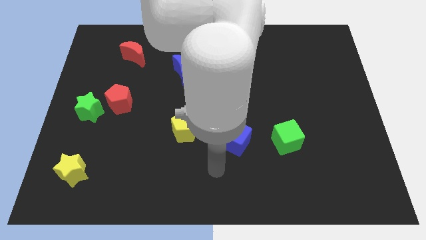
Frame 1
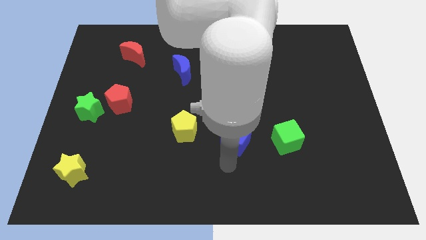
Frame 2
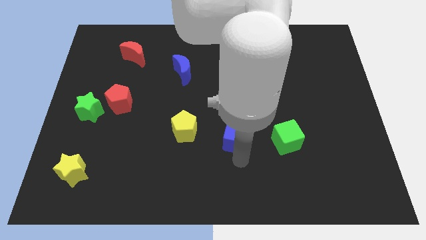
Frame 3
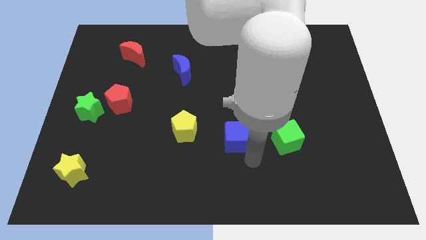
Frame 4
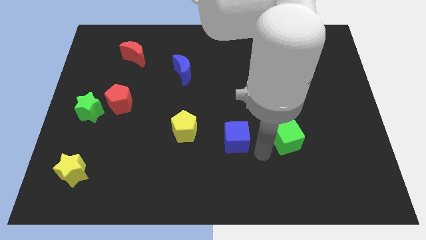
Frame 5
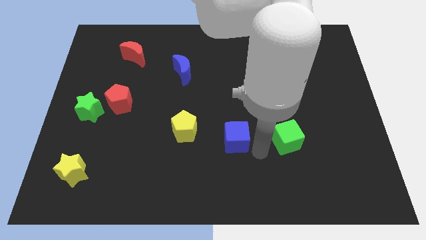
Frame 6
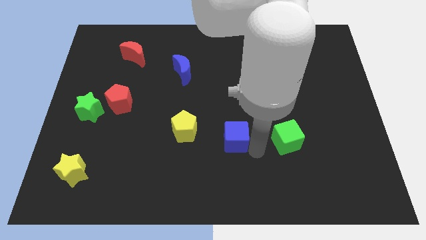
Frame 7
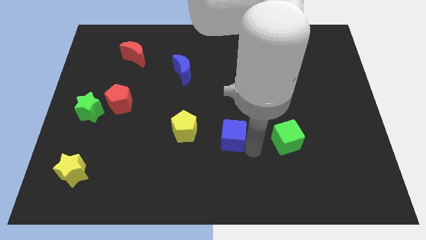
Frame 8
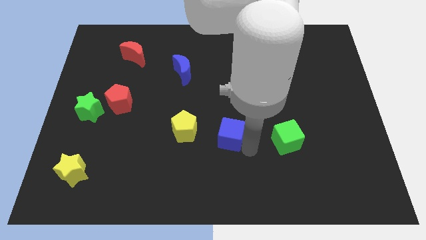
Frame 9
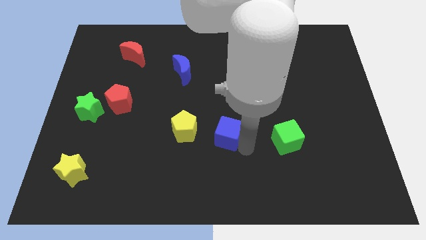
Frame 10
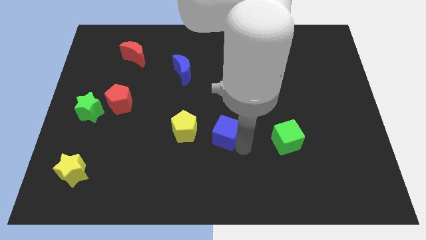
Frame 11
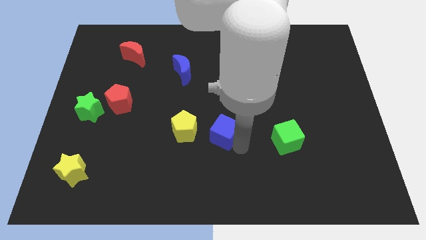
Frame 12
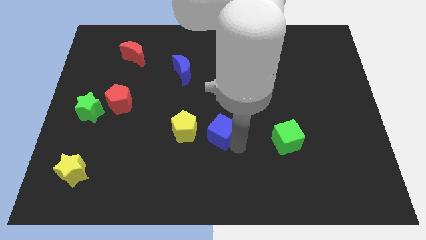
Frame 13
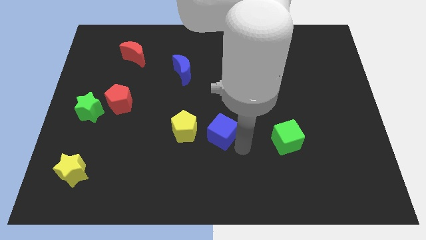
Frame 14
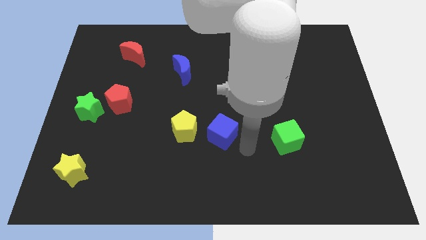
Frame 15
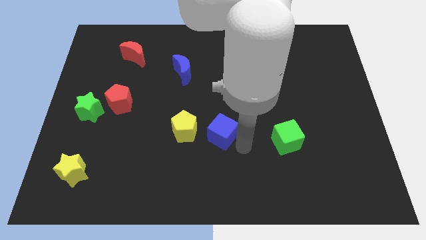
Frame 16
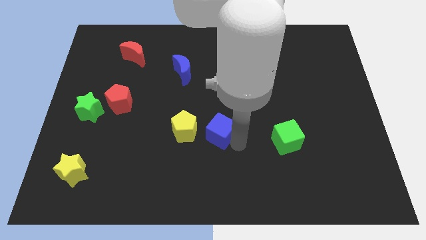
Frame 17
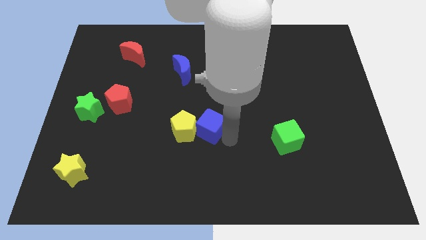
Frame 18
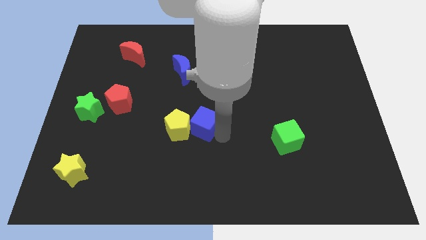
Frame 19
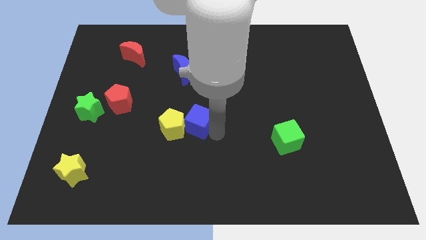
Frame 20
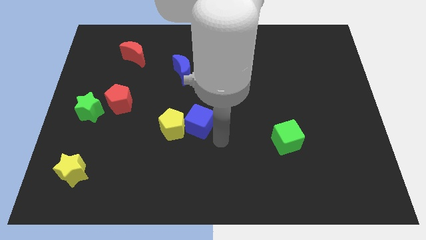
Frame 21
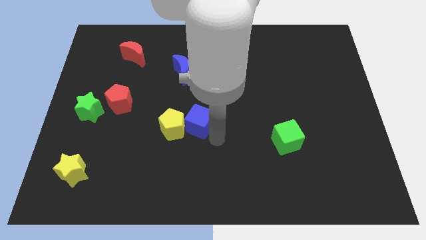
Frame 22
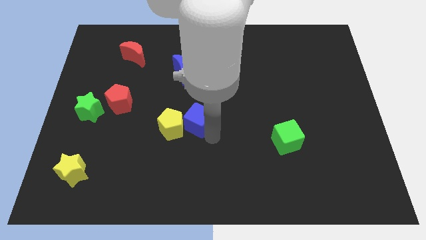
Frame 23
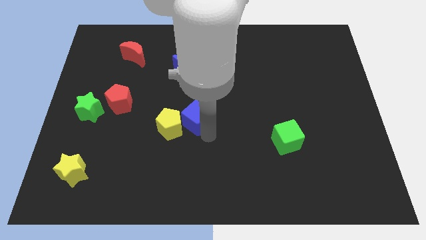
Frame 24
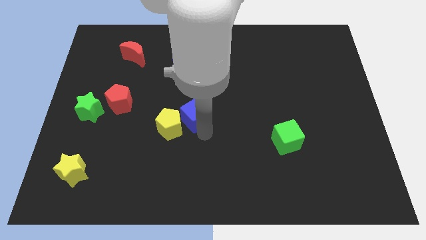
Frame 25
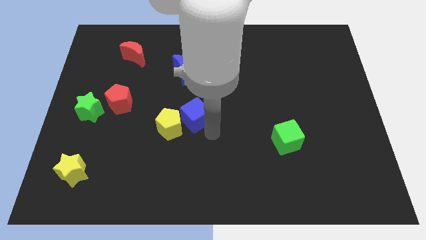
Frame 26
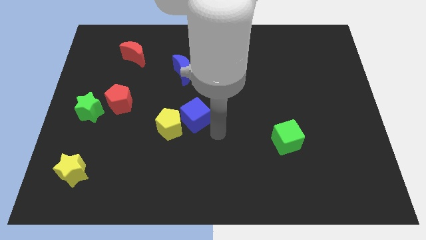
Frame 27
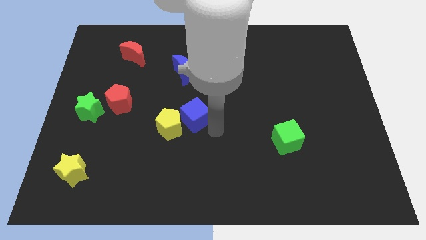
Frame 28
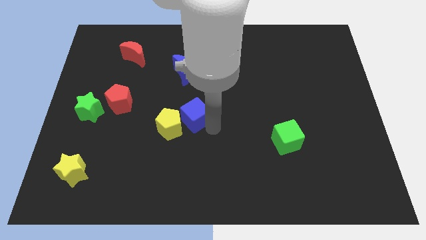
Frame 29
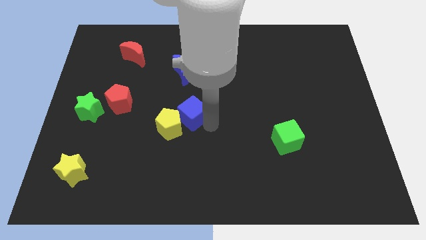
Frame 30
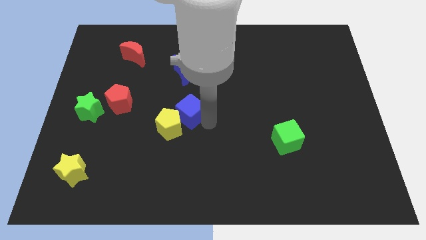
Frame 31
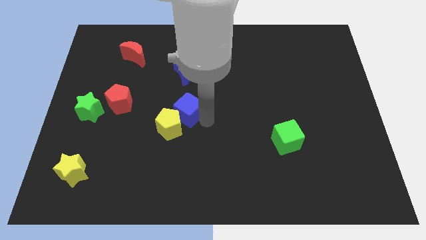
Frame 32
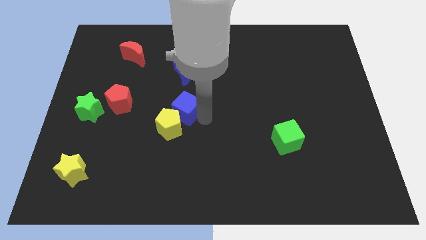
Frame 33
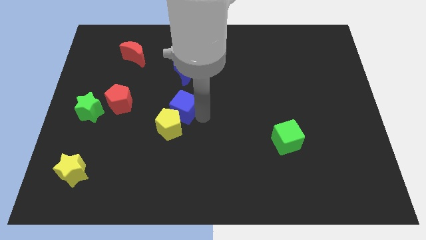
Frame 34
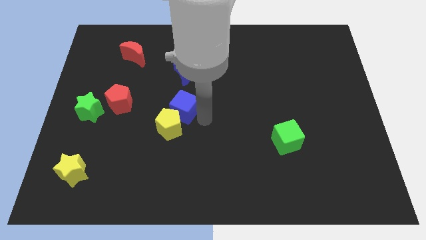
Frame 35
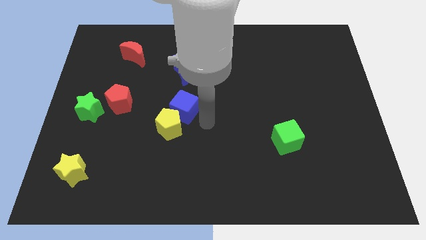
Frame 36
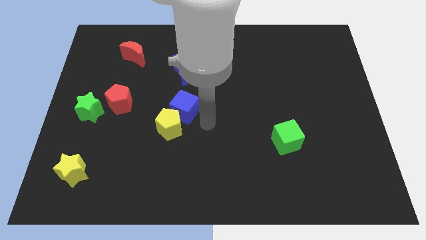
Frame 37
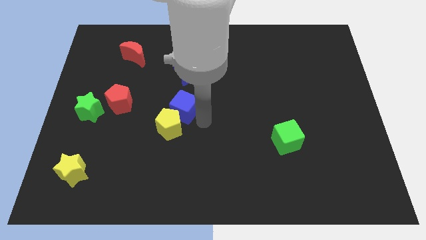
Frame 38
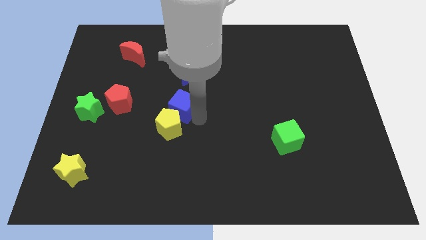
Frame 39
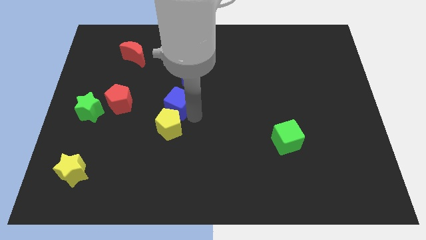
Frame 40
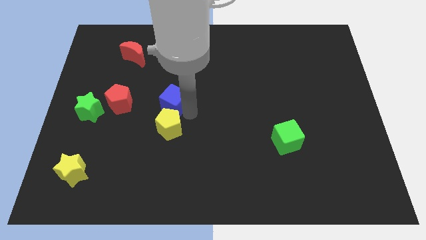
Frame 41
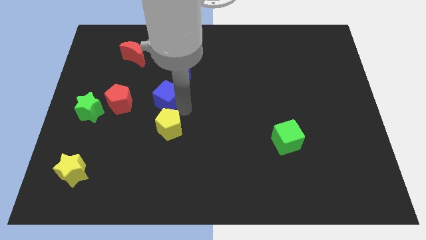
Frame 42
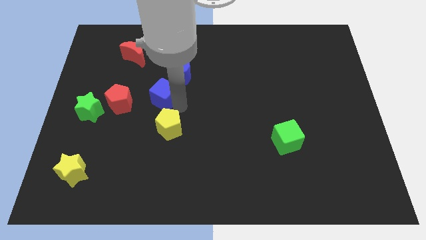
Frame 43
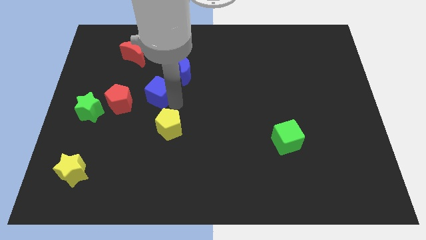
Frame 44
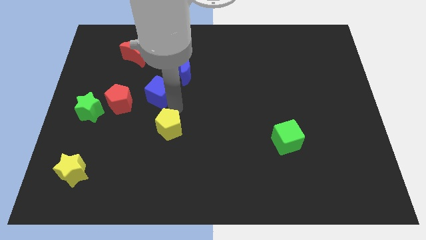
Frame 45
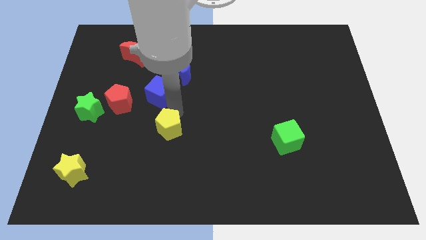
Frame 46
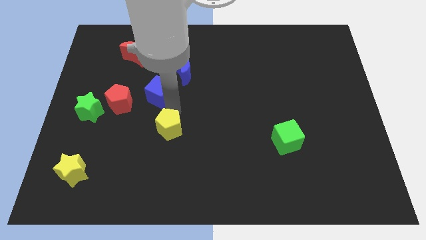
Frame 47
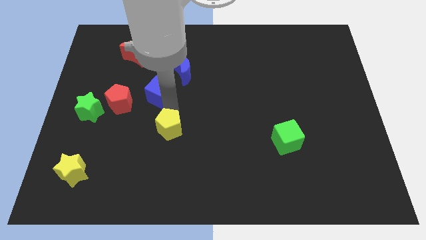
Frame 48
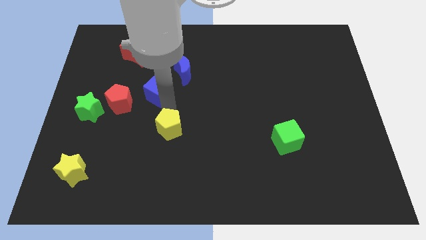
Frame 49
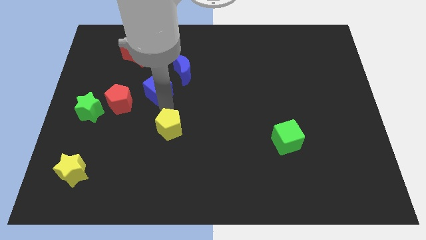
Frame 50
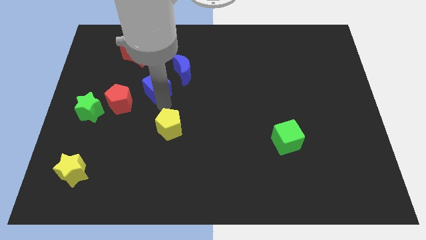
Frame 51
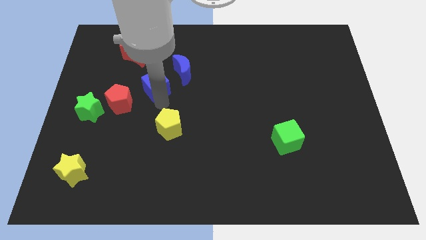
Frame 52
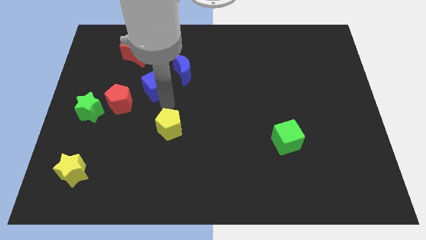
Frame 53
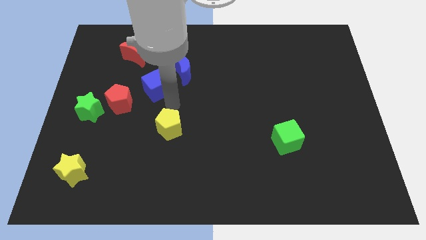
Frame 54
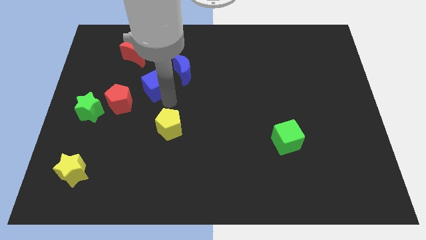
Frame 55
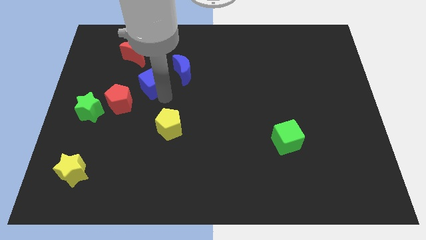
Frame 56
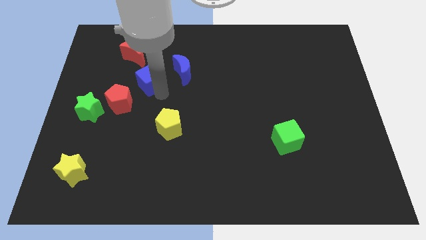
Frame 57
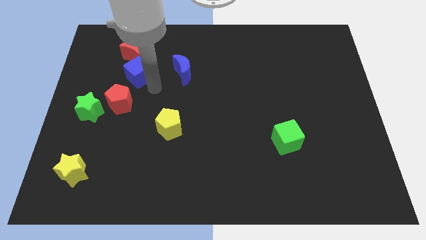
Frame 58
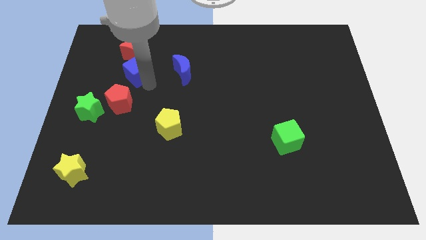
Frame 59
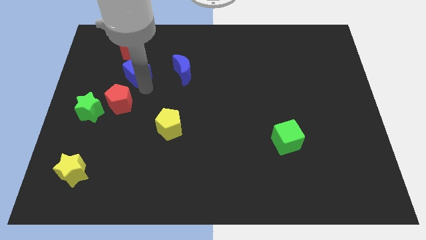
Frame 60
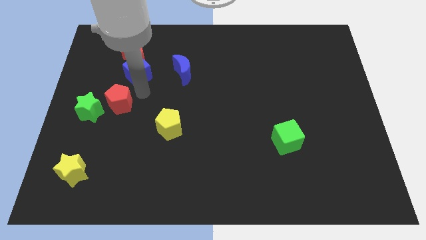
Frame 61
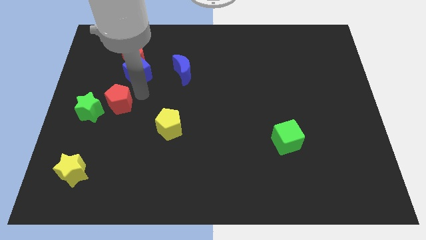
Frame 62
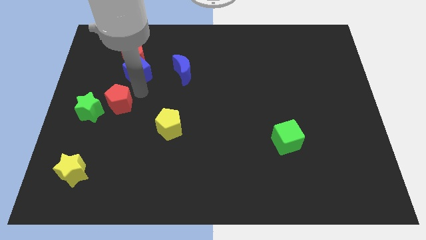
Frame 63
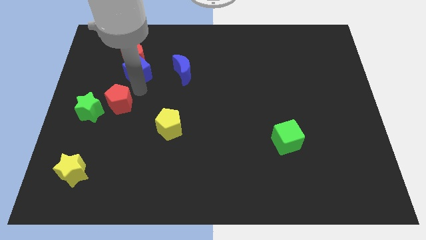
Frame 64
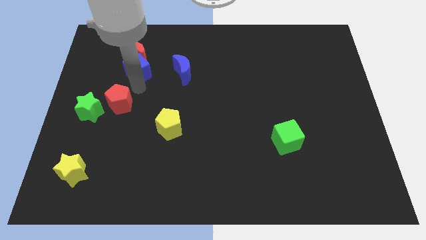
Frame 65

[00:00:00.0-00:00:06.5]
put the blue cube towards the red moon
